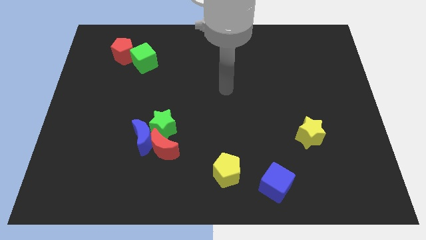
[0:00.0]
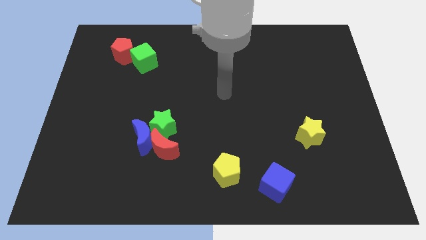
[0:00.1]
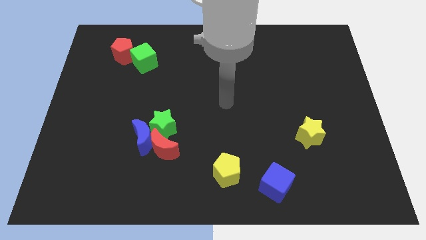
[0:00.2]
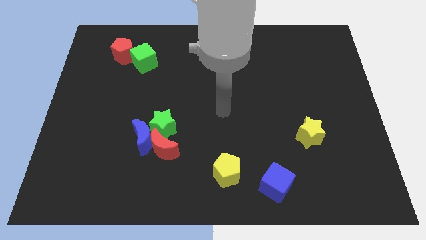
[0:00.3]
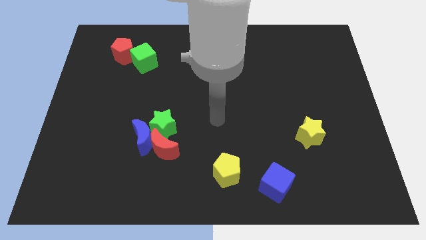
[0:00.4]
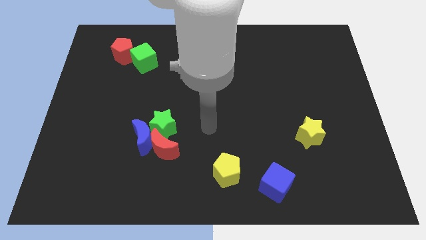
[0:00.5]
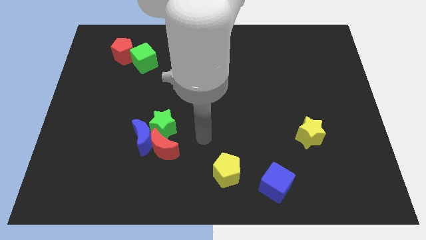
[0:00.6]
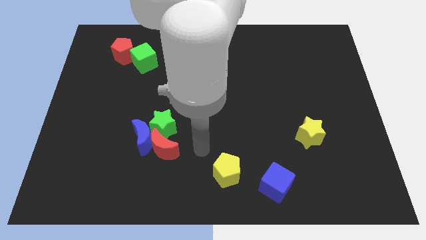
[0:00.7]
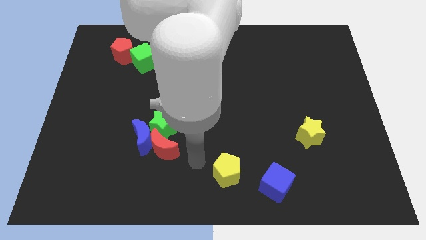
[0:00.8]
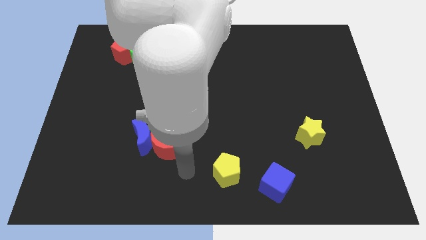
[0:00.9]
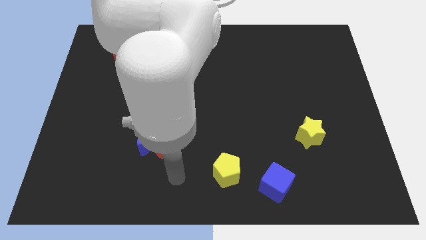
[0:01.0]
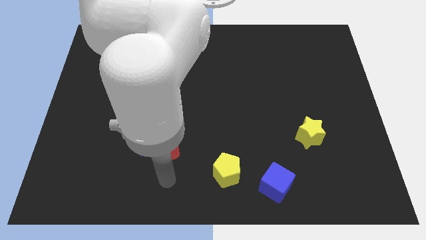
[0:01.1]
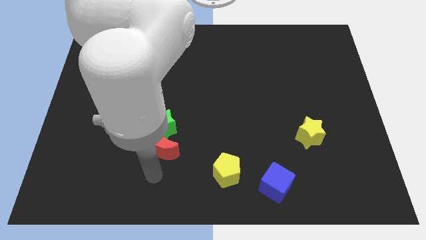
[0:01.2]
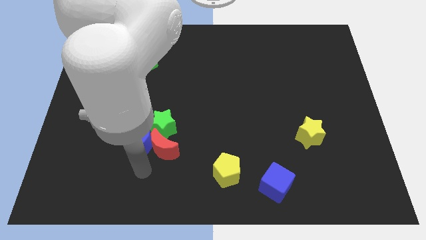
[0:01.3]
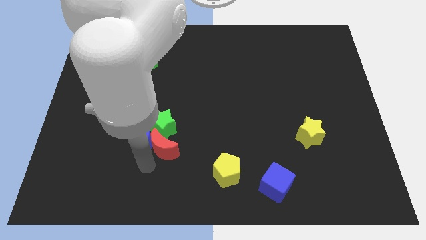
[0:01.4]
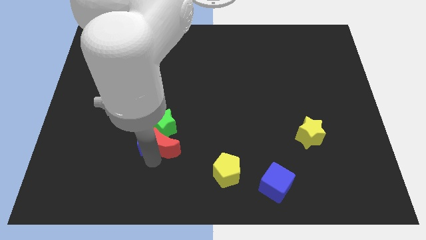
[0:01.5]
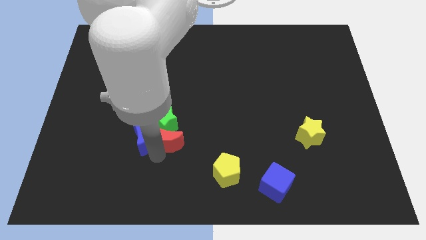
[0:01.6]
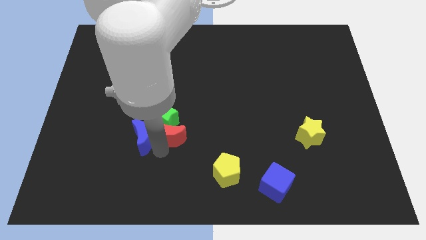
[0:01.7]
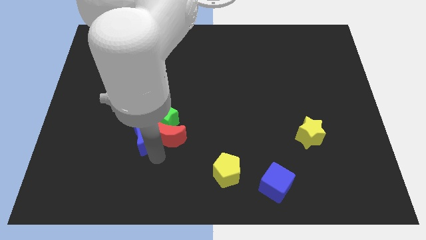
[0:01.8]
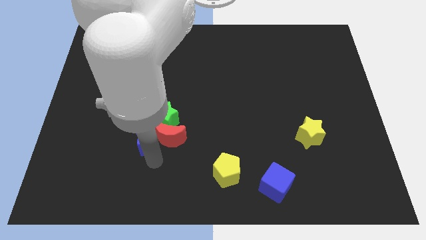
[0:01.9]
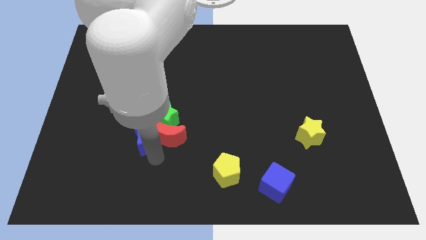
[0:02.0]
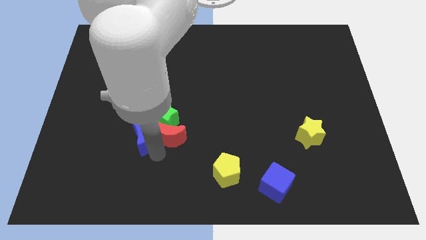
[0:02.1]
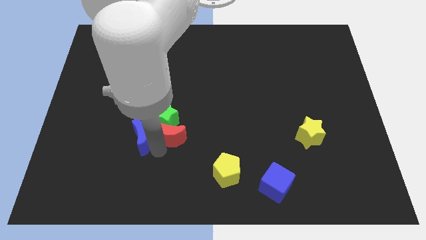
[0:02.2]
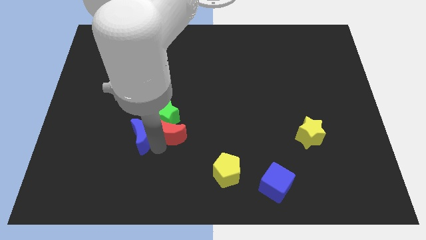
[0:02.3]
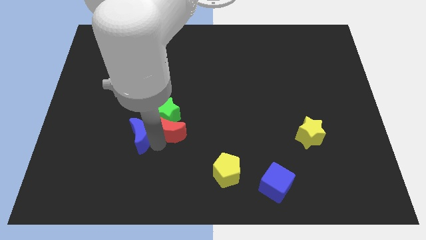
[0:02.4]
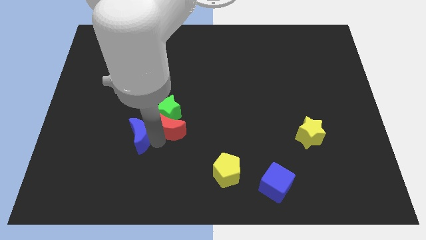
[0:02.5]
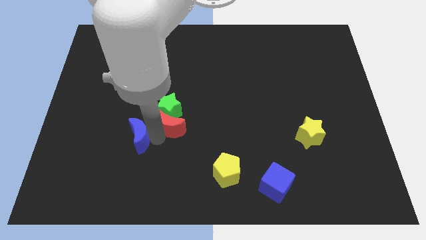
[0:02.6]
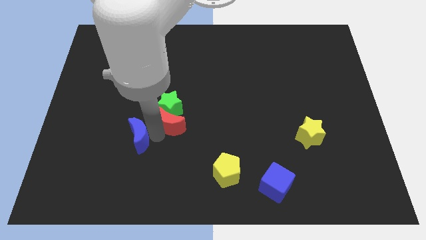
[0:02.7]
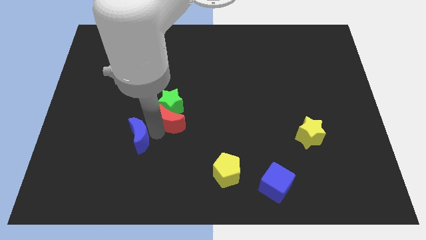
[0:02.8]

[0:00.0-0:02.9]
slightly push the red moon up

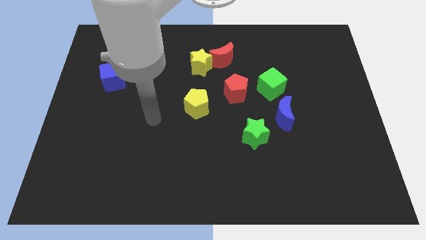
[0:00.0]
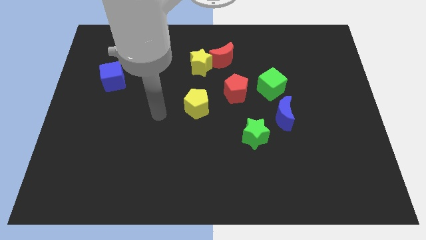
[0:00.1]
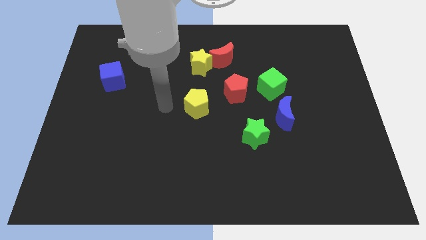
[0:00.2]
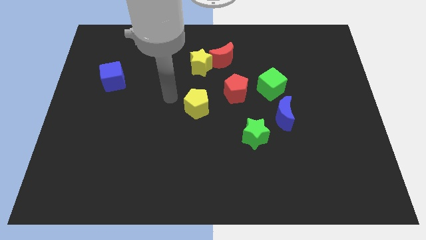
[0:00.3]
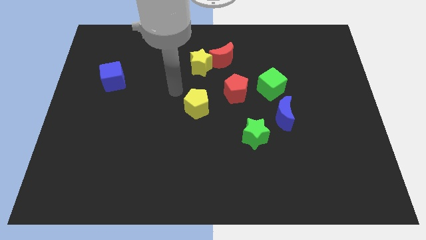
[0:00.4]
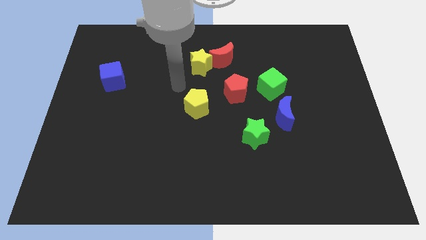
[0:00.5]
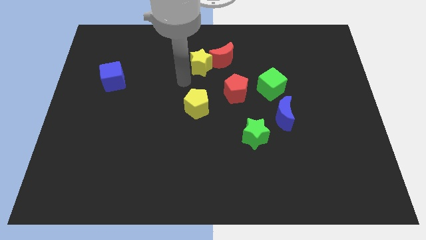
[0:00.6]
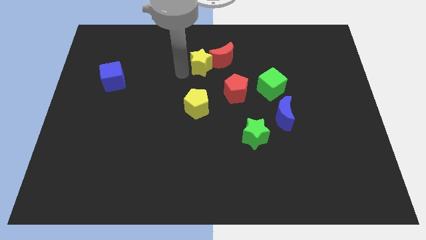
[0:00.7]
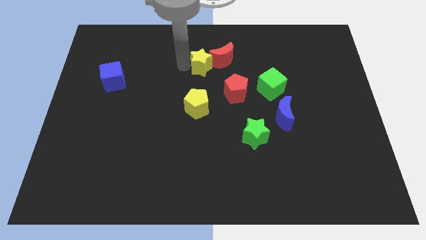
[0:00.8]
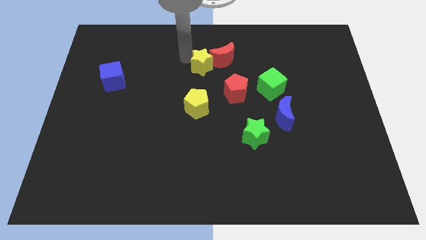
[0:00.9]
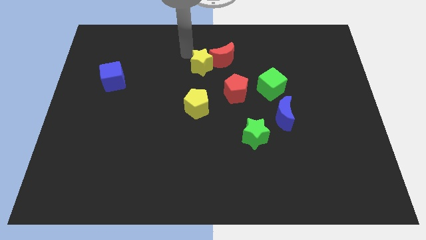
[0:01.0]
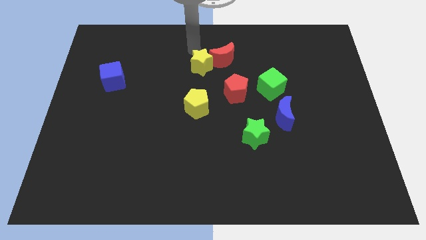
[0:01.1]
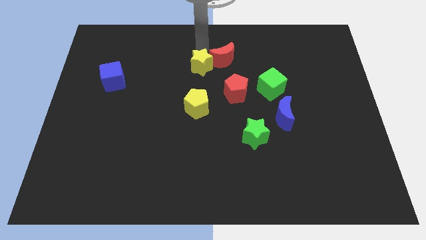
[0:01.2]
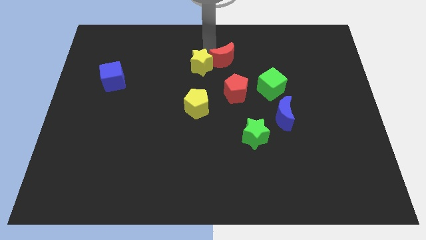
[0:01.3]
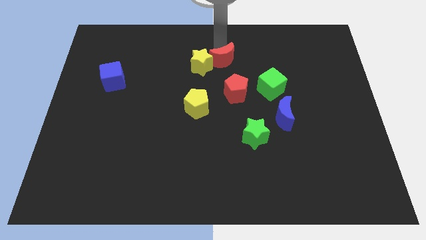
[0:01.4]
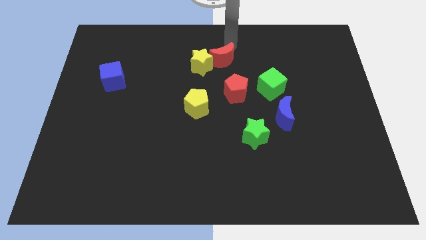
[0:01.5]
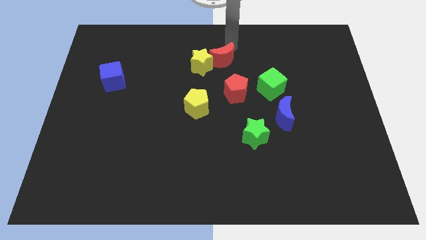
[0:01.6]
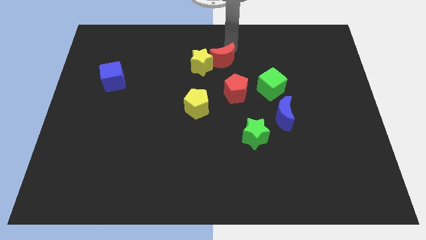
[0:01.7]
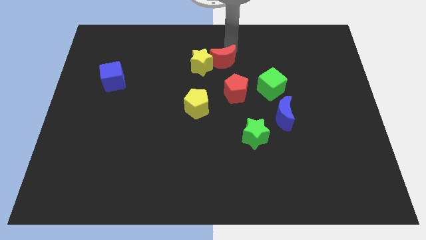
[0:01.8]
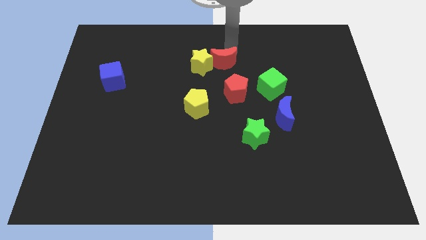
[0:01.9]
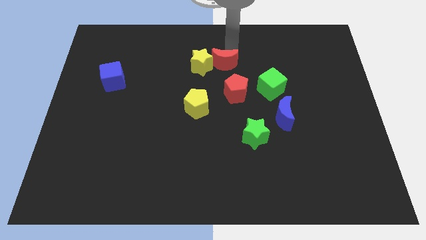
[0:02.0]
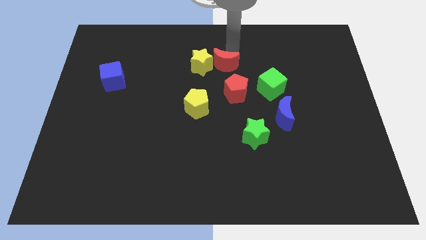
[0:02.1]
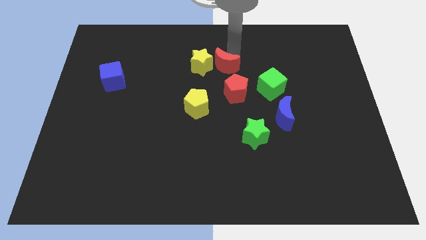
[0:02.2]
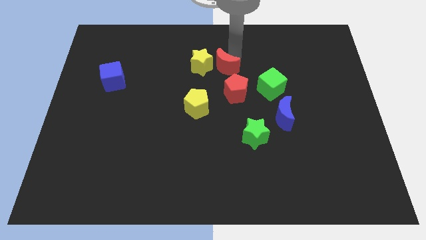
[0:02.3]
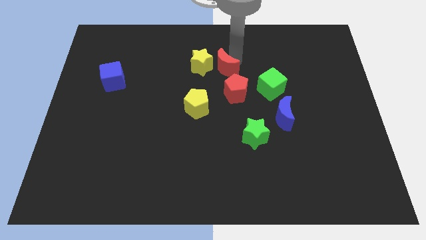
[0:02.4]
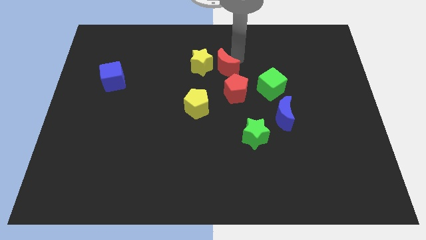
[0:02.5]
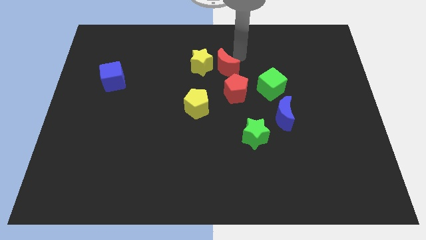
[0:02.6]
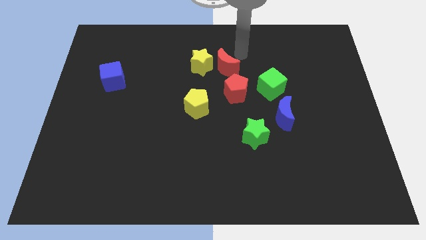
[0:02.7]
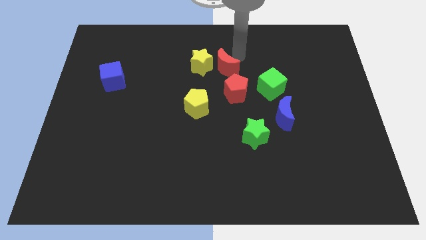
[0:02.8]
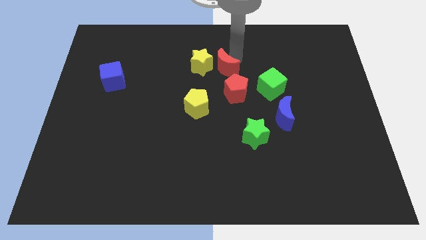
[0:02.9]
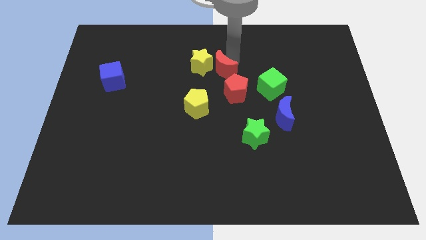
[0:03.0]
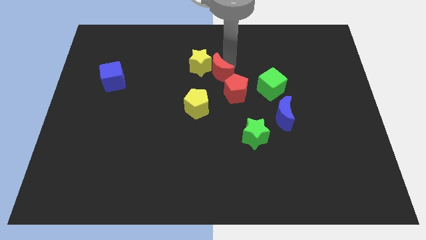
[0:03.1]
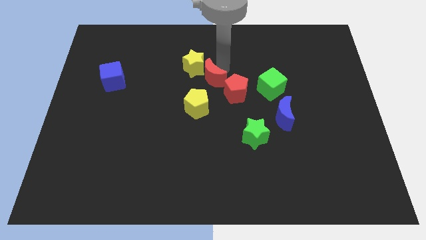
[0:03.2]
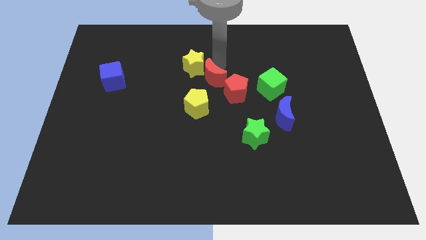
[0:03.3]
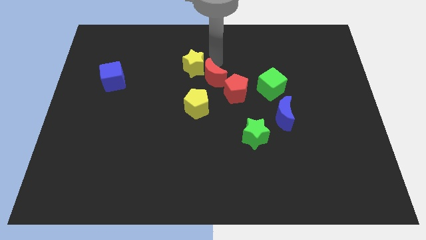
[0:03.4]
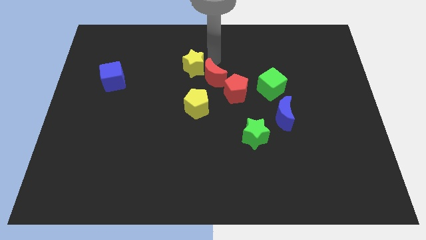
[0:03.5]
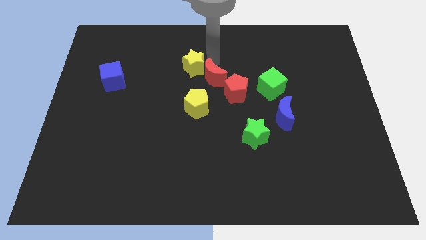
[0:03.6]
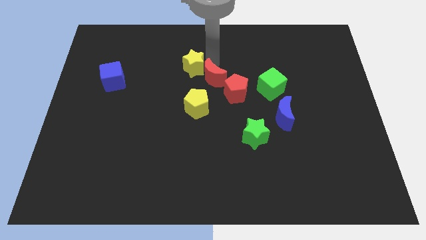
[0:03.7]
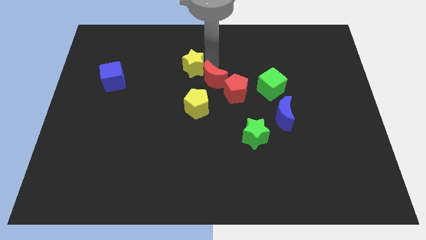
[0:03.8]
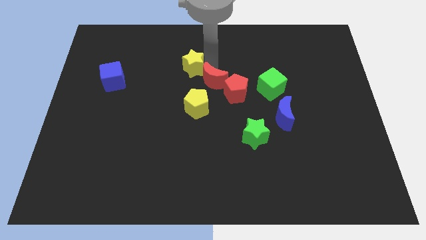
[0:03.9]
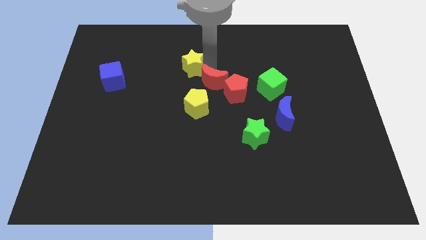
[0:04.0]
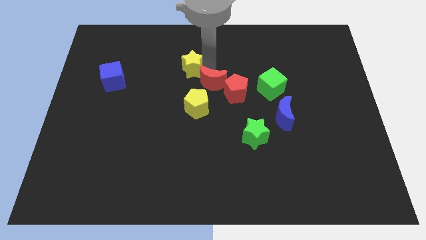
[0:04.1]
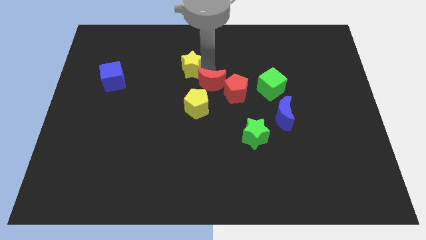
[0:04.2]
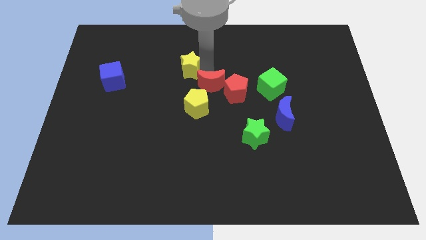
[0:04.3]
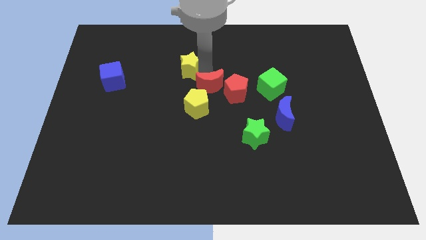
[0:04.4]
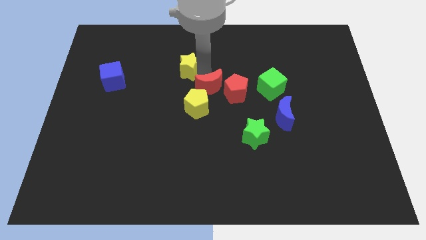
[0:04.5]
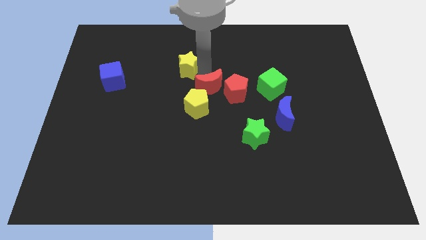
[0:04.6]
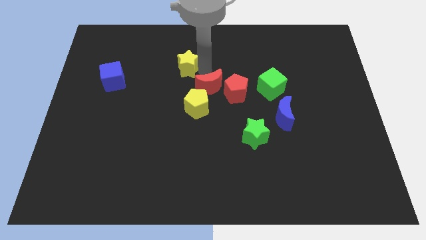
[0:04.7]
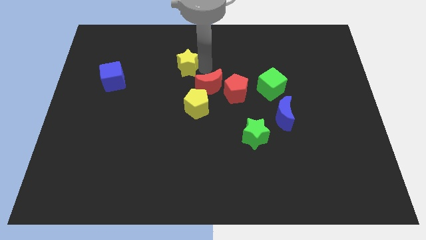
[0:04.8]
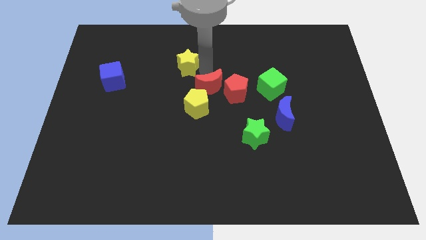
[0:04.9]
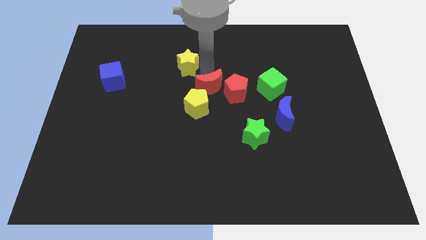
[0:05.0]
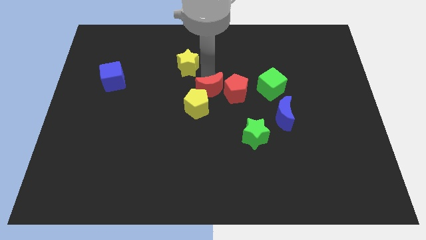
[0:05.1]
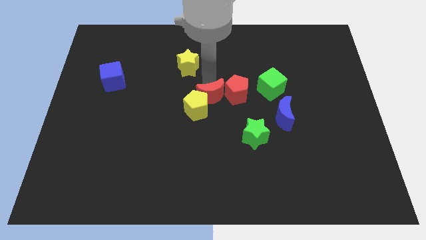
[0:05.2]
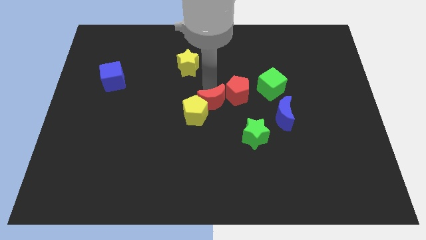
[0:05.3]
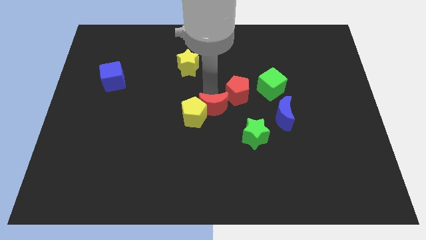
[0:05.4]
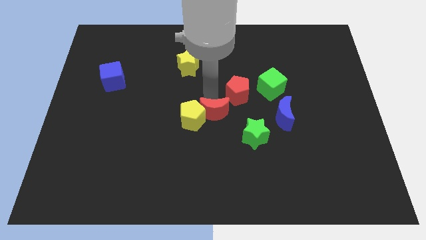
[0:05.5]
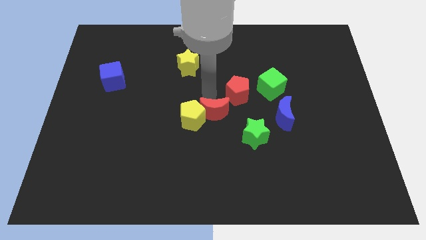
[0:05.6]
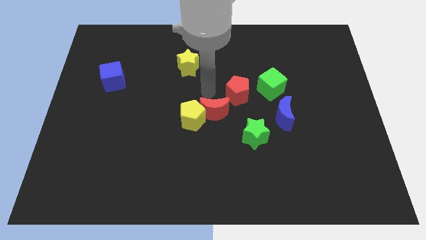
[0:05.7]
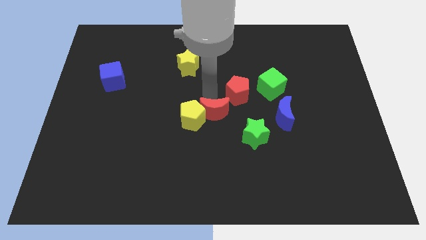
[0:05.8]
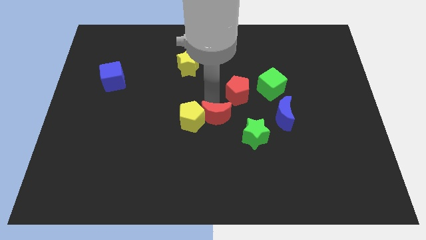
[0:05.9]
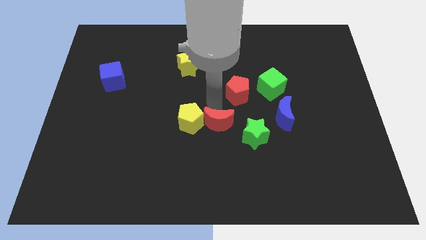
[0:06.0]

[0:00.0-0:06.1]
move the red moon down
